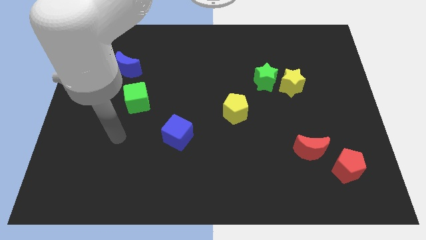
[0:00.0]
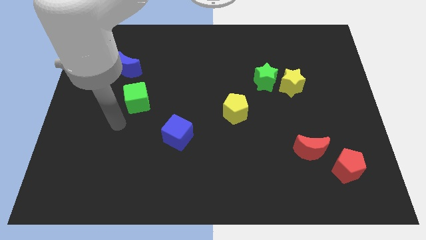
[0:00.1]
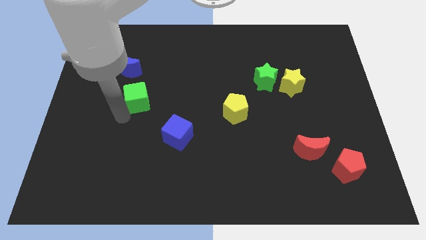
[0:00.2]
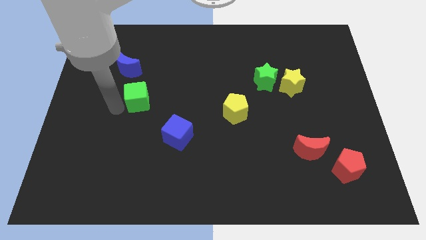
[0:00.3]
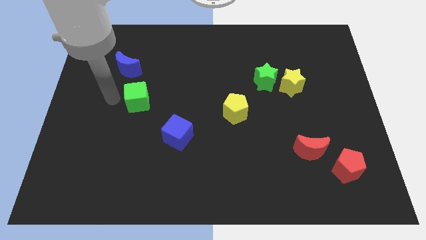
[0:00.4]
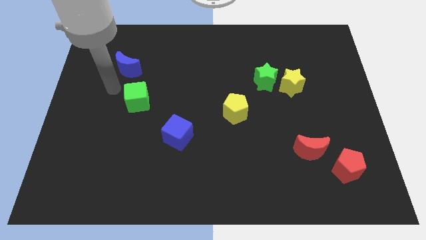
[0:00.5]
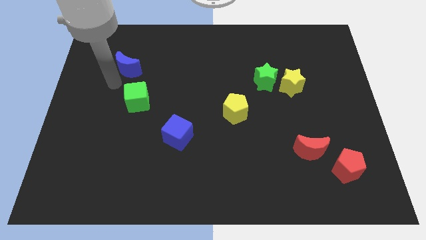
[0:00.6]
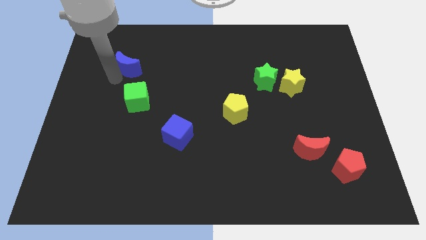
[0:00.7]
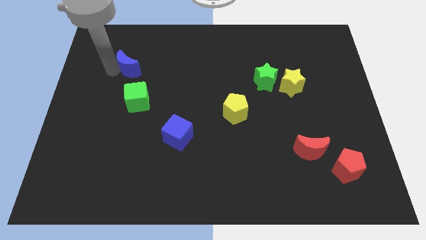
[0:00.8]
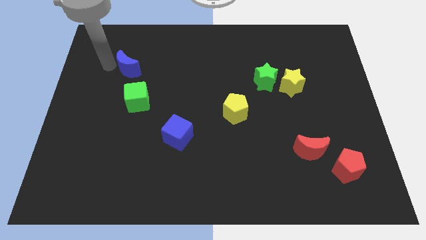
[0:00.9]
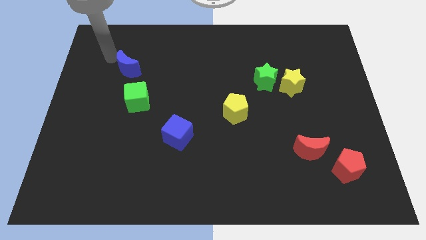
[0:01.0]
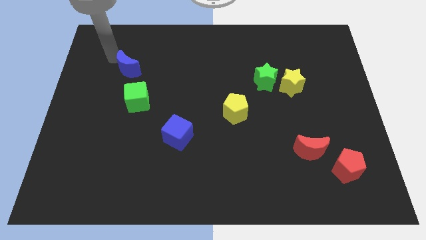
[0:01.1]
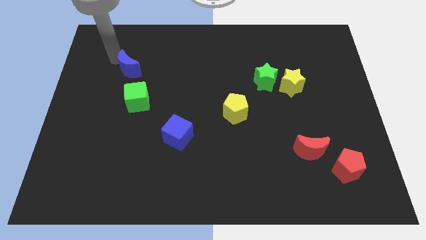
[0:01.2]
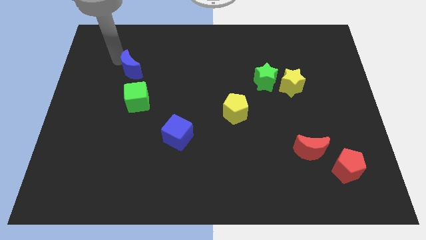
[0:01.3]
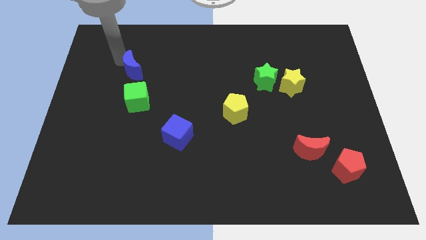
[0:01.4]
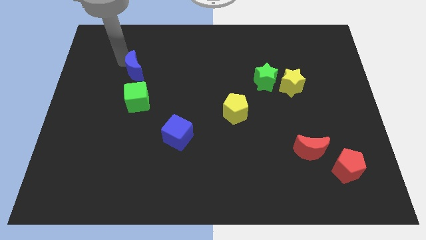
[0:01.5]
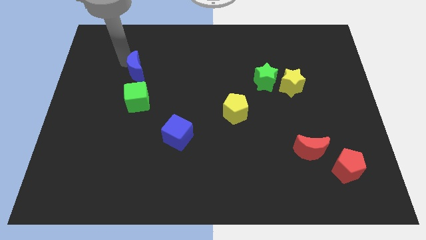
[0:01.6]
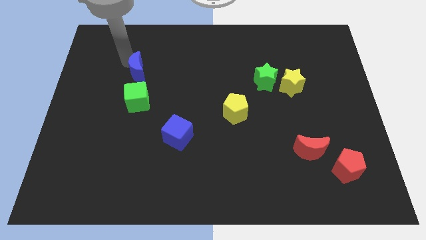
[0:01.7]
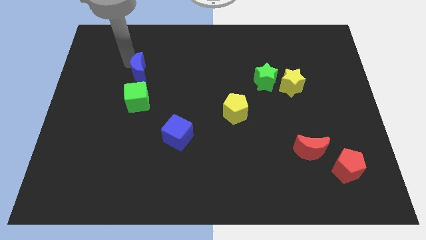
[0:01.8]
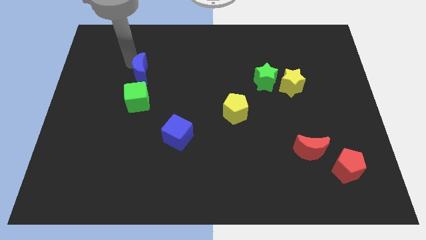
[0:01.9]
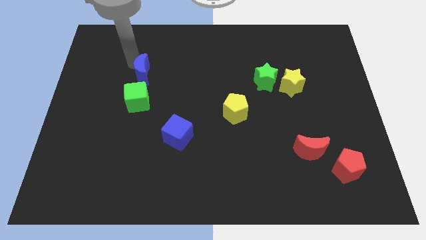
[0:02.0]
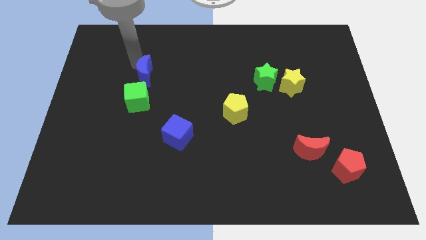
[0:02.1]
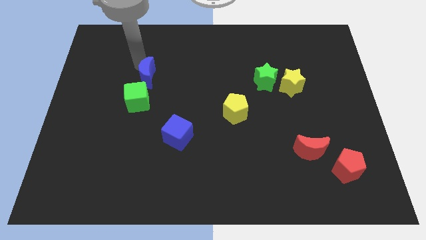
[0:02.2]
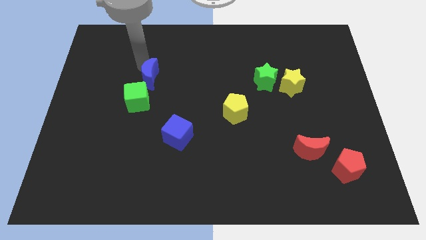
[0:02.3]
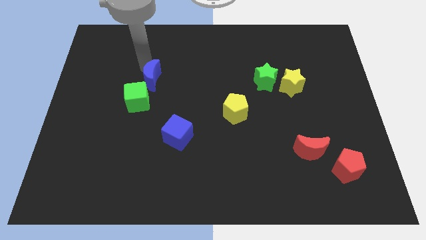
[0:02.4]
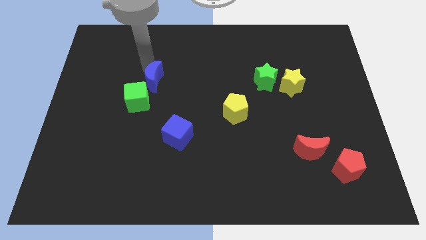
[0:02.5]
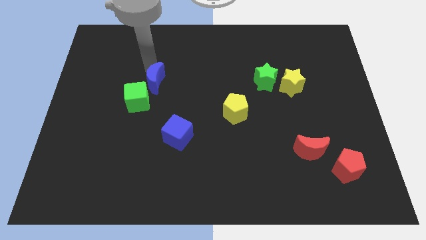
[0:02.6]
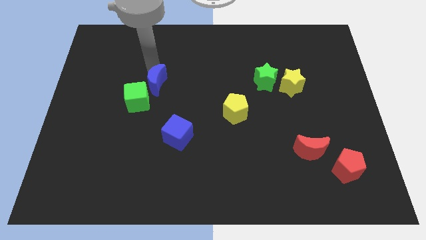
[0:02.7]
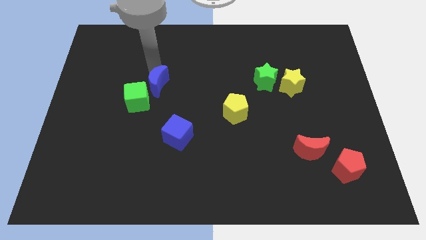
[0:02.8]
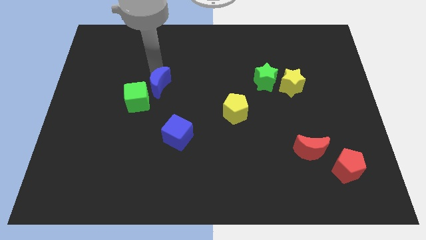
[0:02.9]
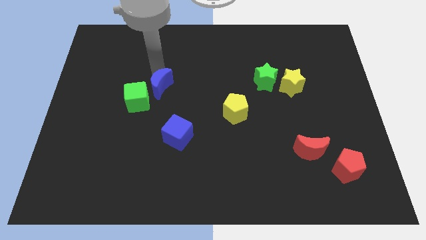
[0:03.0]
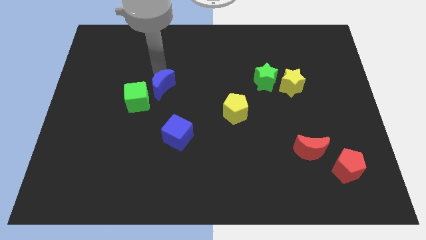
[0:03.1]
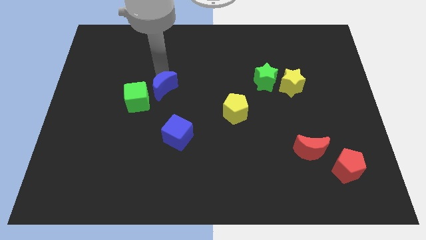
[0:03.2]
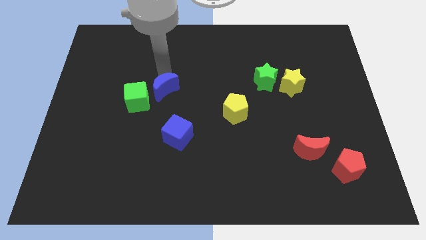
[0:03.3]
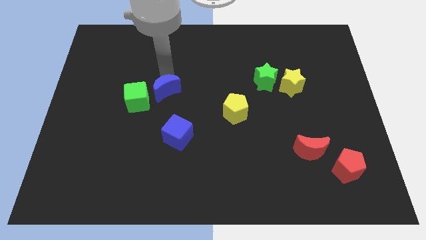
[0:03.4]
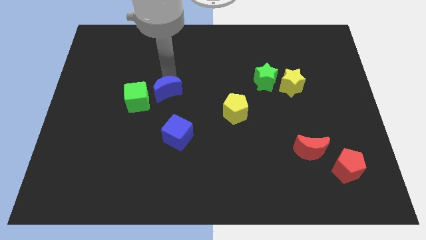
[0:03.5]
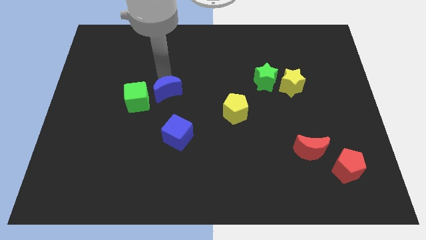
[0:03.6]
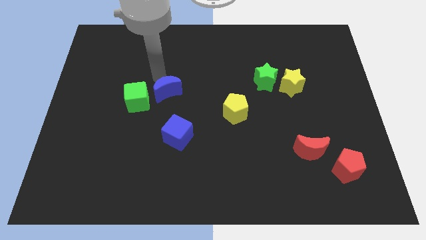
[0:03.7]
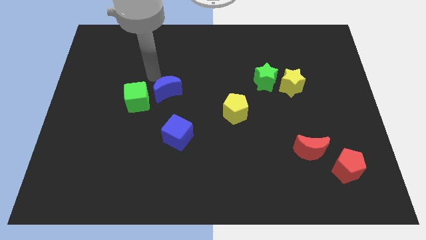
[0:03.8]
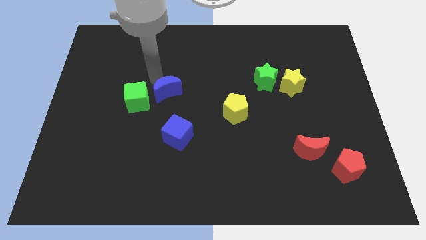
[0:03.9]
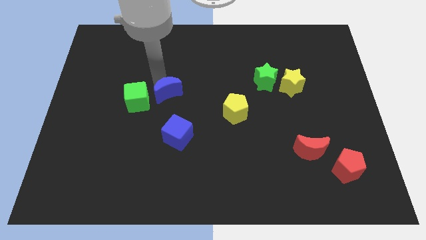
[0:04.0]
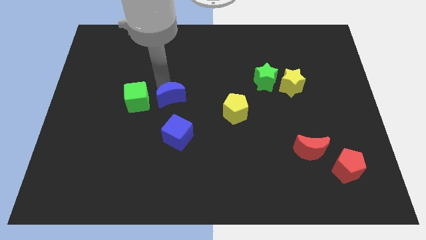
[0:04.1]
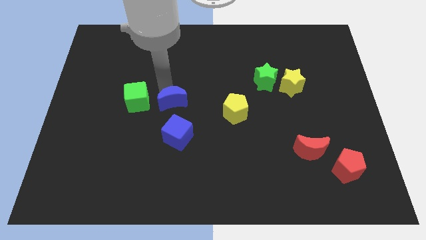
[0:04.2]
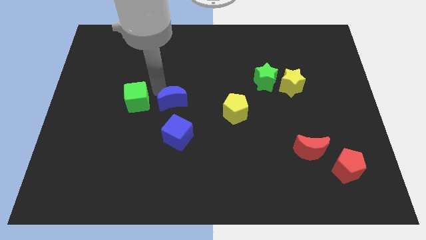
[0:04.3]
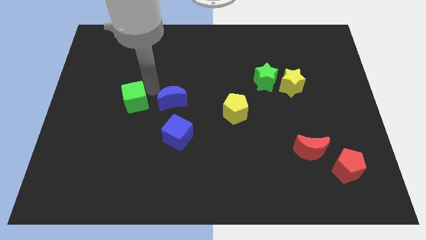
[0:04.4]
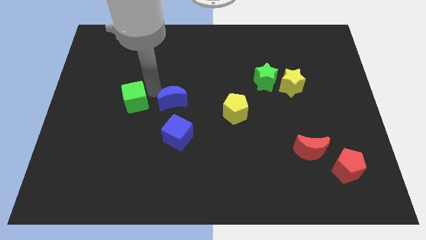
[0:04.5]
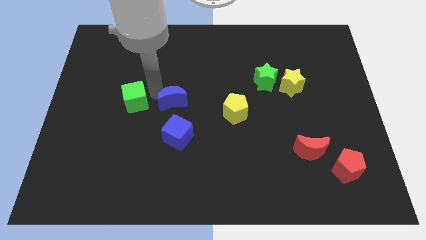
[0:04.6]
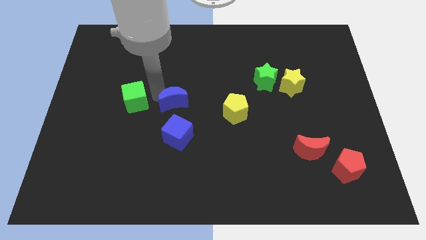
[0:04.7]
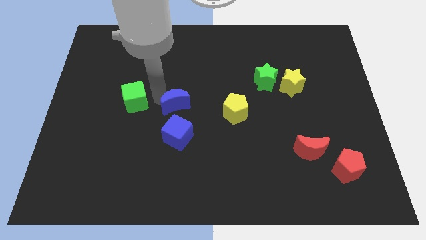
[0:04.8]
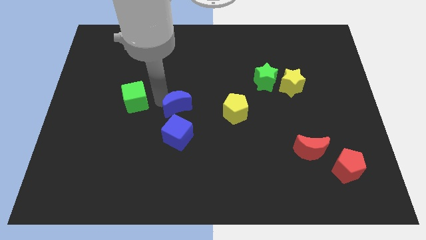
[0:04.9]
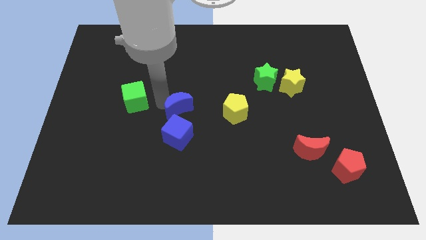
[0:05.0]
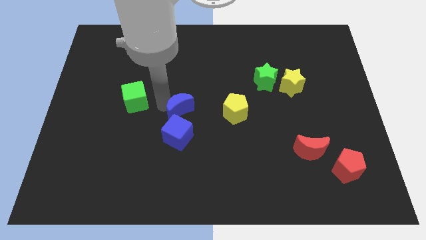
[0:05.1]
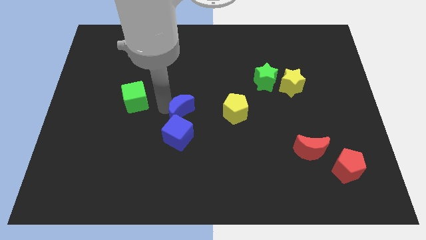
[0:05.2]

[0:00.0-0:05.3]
move the blue moon diagonally up and to the right of the blue cube

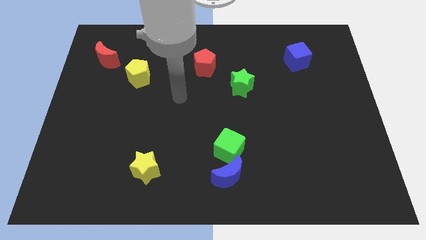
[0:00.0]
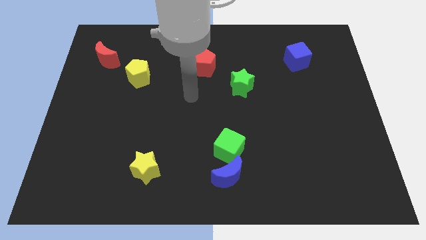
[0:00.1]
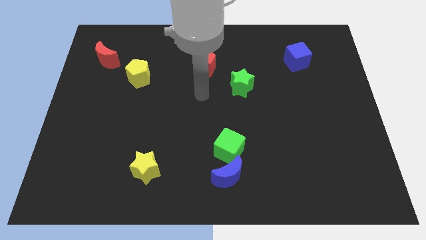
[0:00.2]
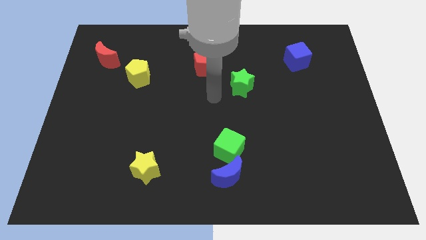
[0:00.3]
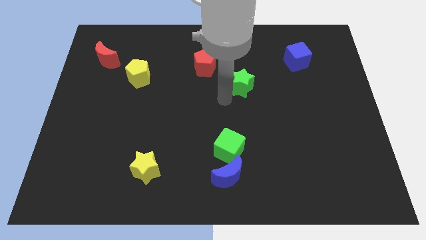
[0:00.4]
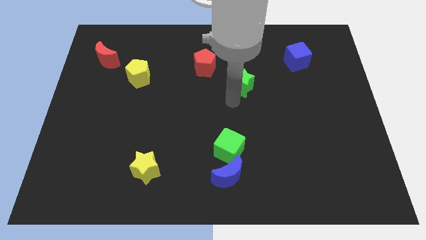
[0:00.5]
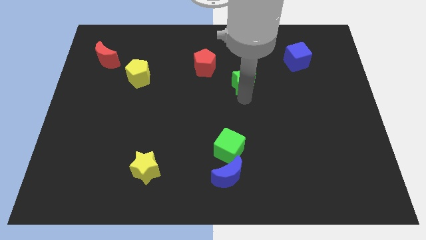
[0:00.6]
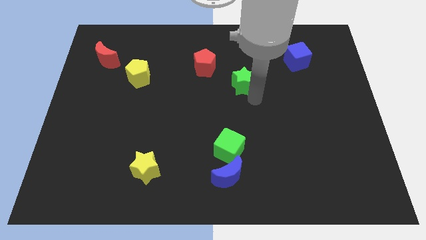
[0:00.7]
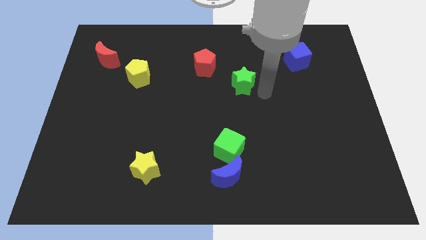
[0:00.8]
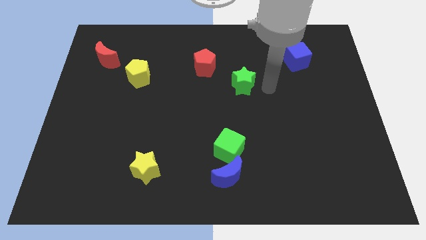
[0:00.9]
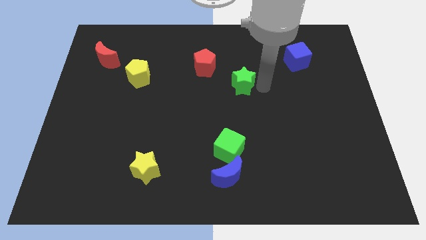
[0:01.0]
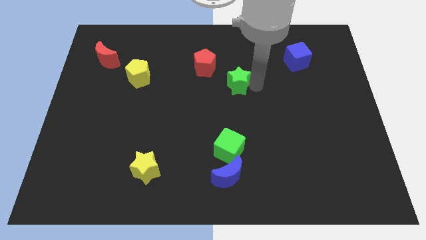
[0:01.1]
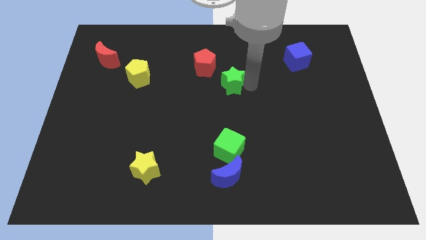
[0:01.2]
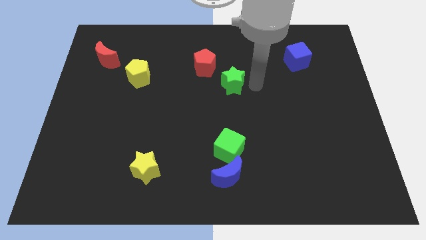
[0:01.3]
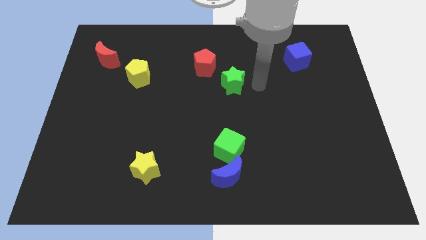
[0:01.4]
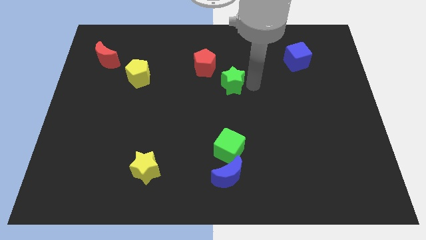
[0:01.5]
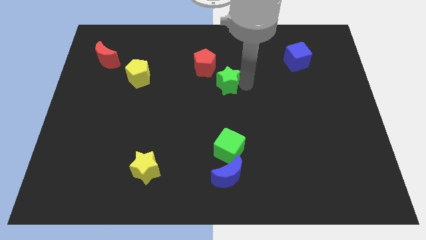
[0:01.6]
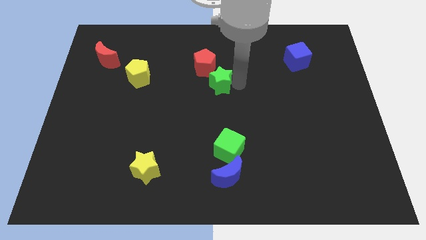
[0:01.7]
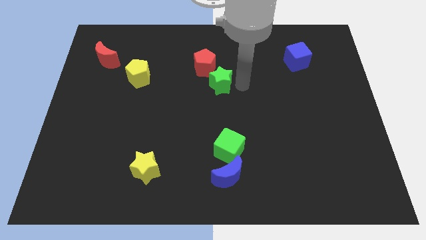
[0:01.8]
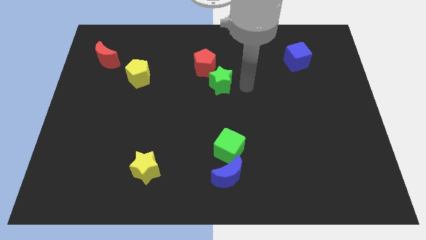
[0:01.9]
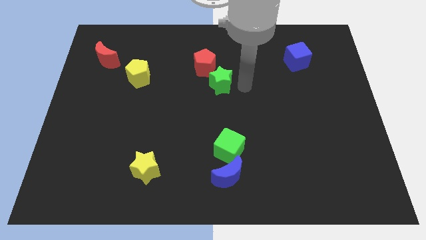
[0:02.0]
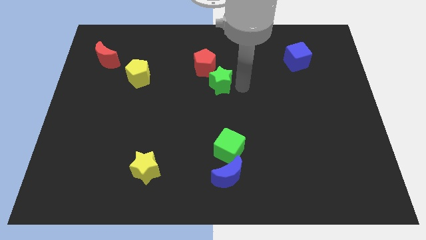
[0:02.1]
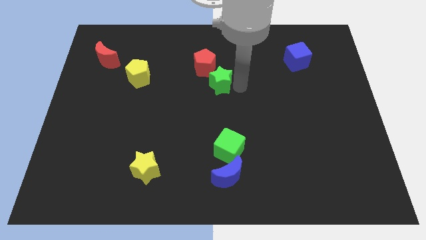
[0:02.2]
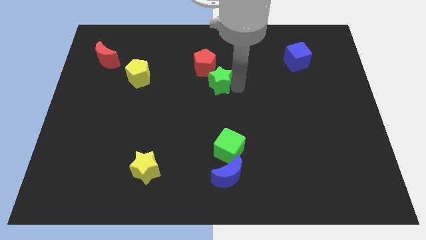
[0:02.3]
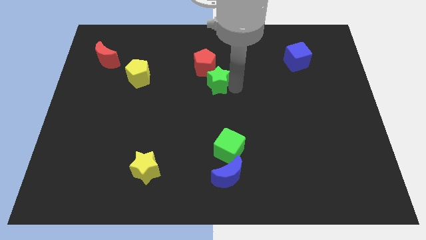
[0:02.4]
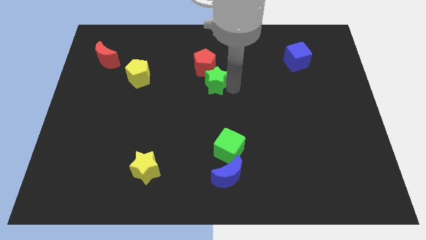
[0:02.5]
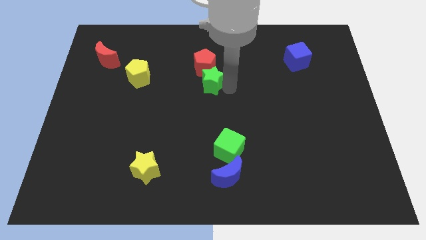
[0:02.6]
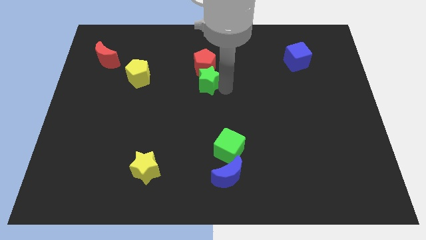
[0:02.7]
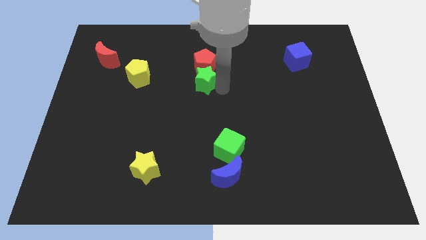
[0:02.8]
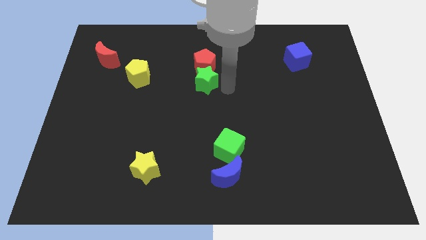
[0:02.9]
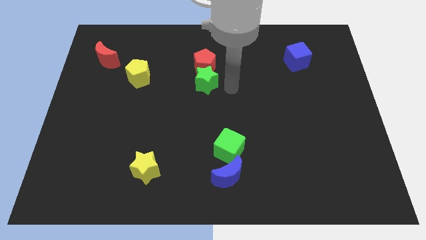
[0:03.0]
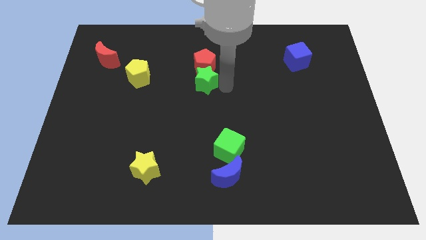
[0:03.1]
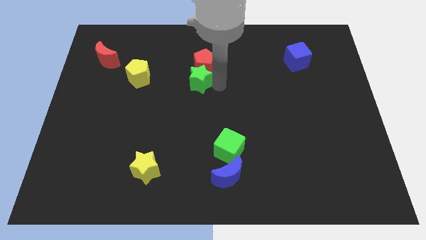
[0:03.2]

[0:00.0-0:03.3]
push the green star right of the yellow pentagon
